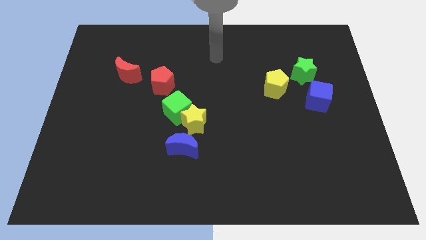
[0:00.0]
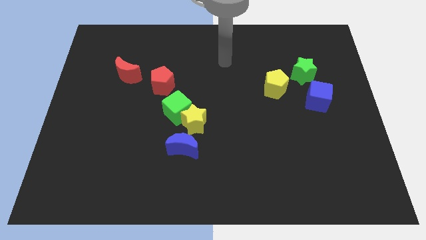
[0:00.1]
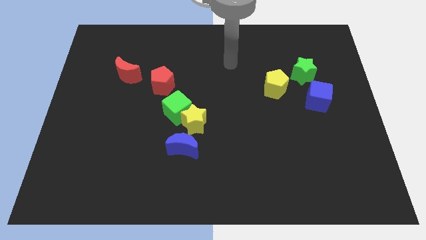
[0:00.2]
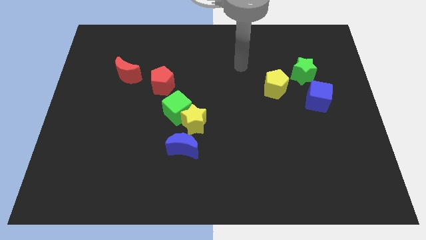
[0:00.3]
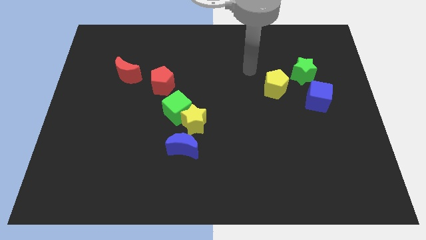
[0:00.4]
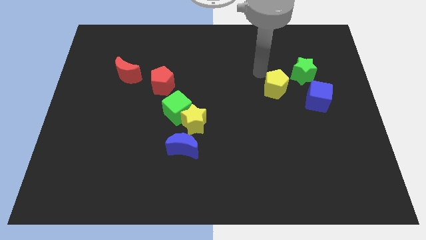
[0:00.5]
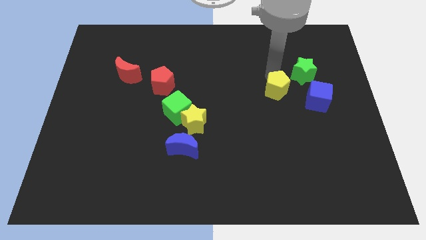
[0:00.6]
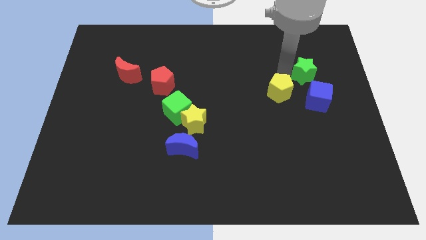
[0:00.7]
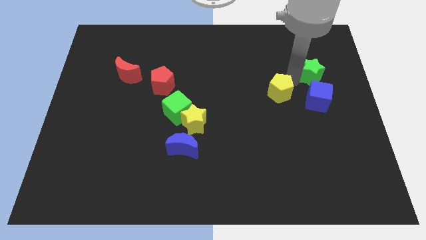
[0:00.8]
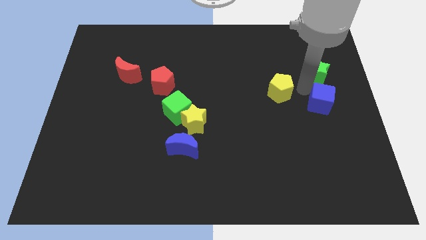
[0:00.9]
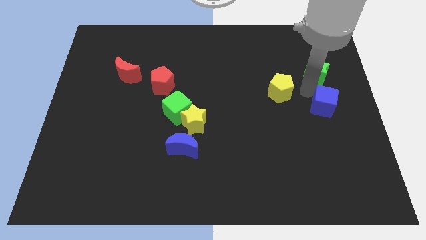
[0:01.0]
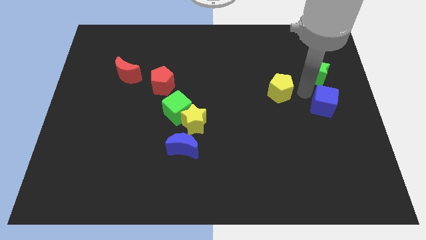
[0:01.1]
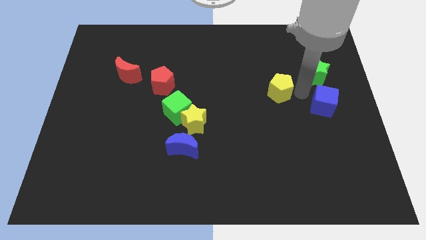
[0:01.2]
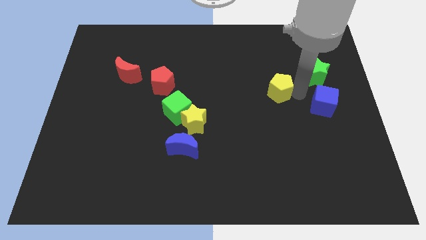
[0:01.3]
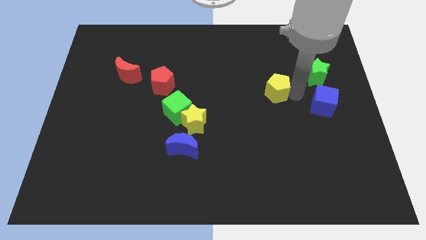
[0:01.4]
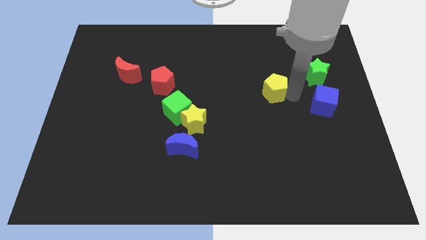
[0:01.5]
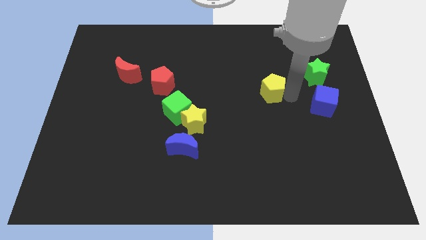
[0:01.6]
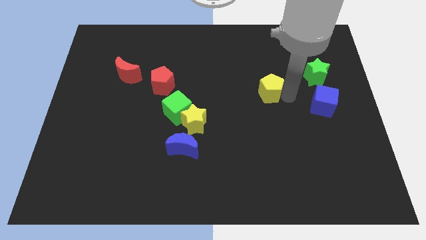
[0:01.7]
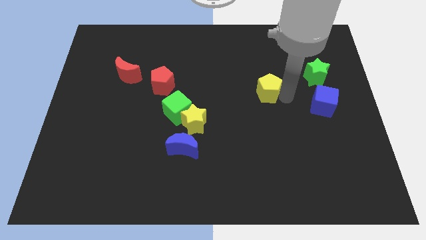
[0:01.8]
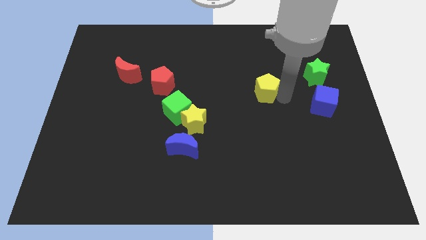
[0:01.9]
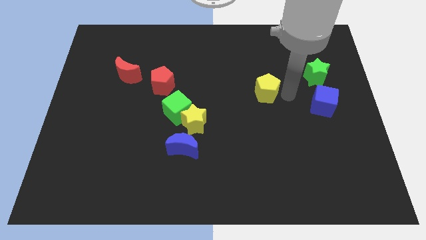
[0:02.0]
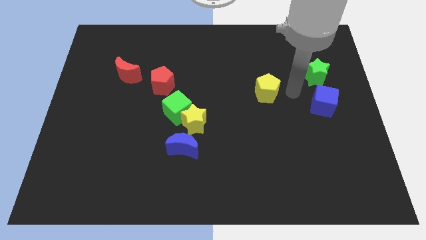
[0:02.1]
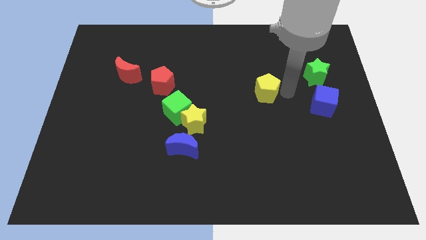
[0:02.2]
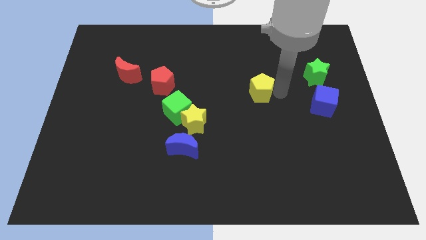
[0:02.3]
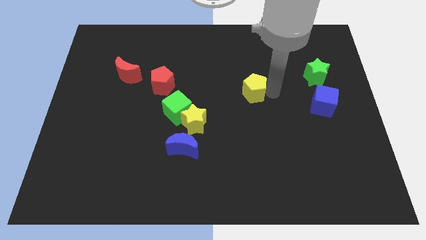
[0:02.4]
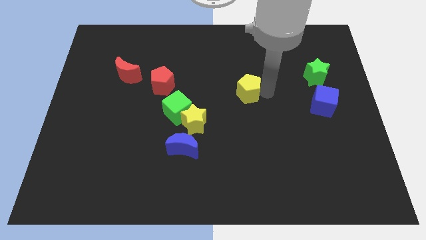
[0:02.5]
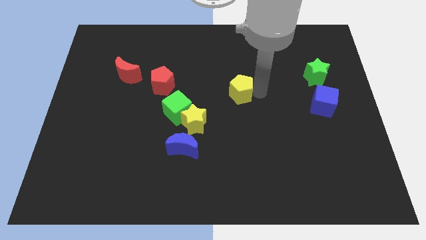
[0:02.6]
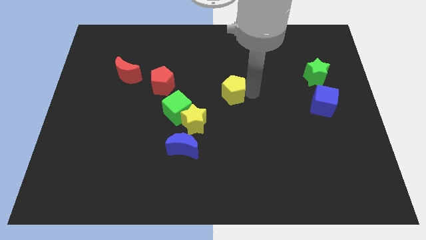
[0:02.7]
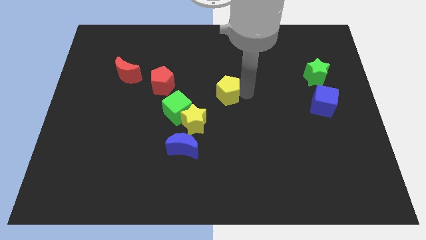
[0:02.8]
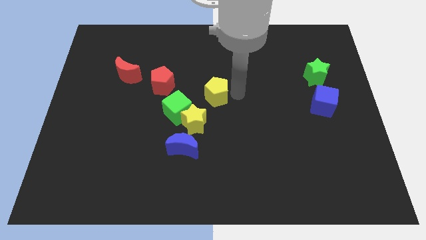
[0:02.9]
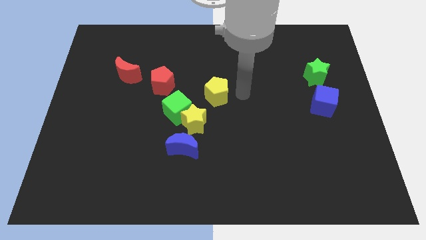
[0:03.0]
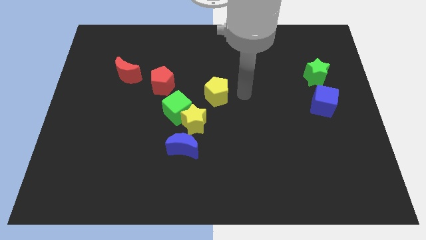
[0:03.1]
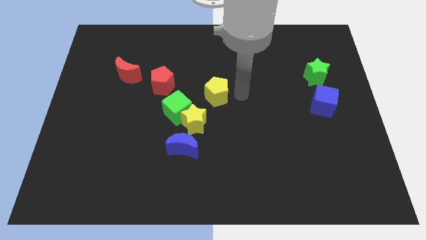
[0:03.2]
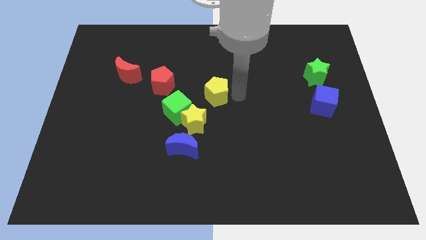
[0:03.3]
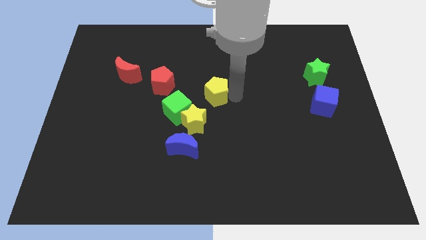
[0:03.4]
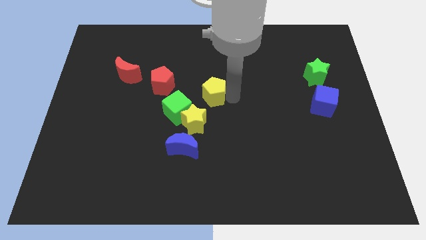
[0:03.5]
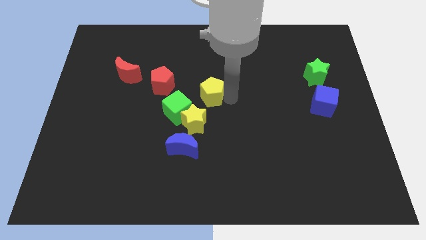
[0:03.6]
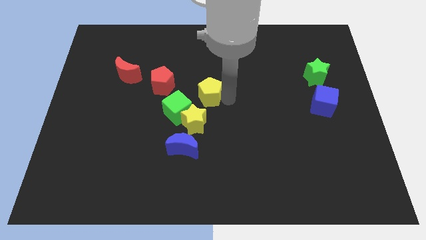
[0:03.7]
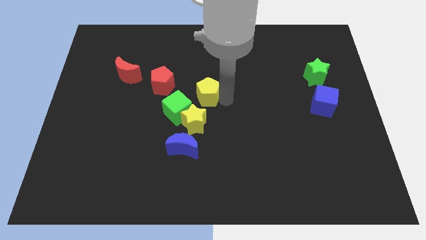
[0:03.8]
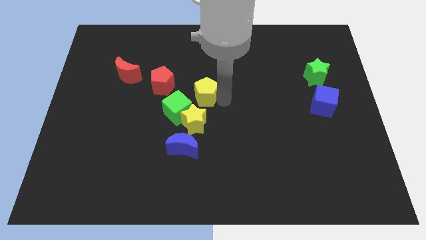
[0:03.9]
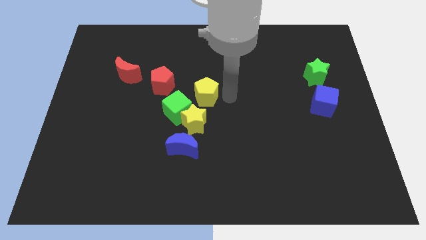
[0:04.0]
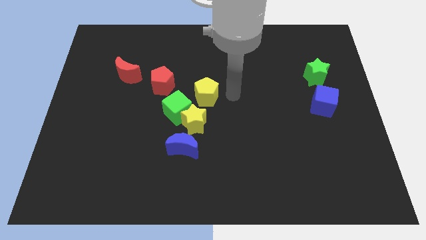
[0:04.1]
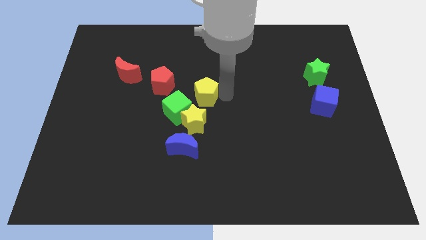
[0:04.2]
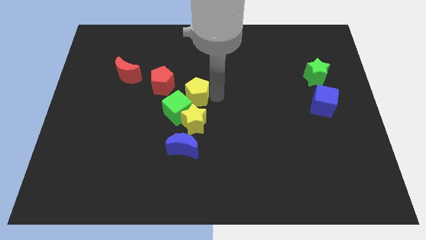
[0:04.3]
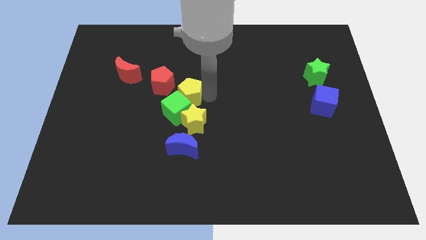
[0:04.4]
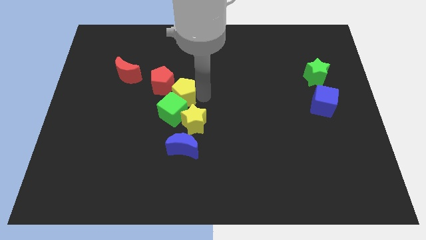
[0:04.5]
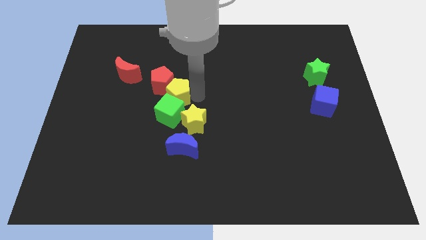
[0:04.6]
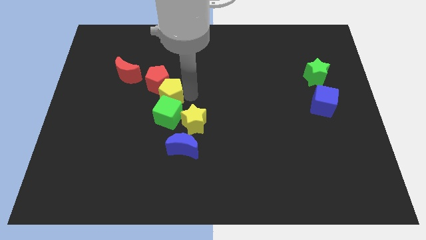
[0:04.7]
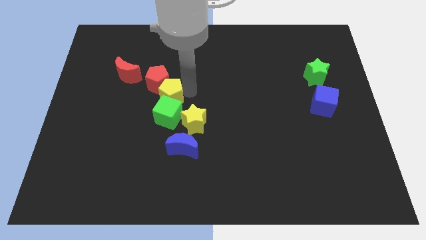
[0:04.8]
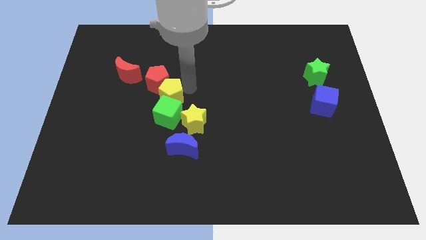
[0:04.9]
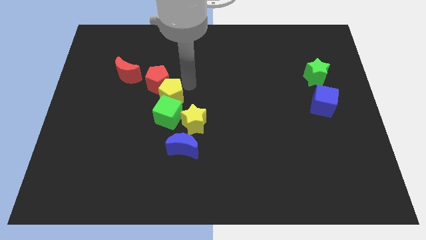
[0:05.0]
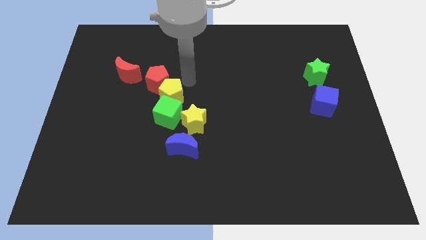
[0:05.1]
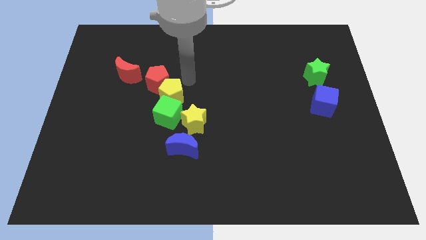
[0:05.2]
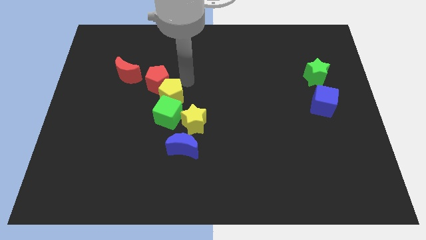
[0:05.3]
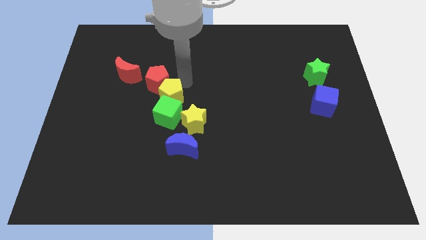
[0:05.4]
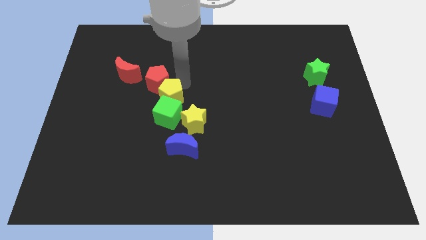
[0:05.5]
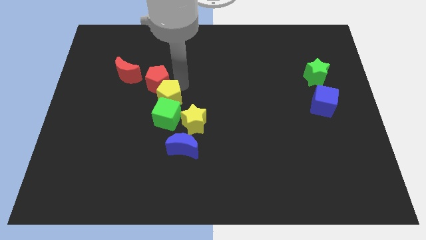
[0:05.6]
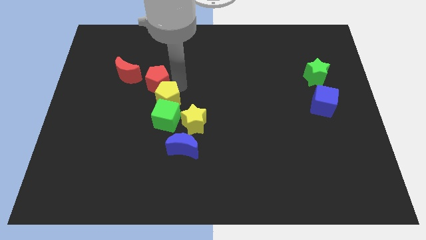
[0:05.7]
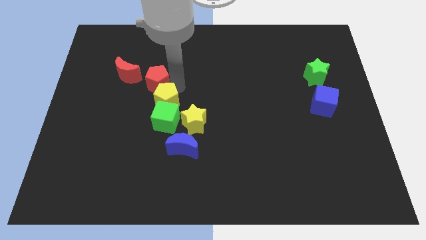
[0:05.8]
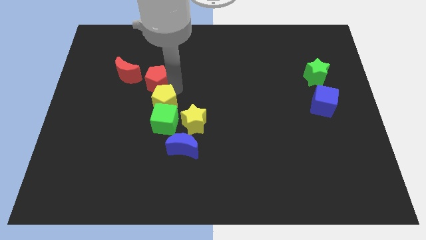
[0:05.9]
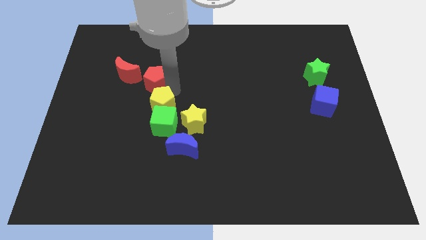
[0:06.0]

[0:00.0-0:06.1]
move the yellow pentagon just left of the yellow star

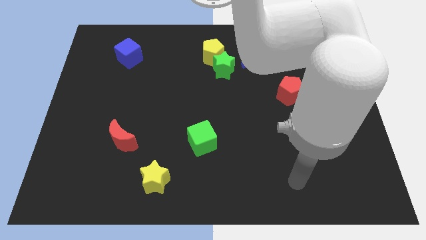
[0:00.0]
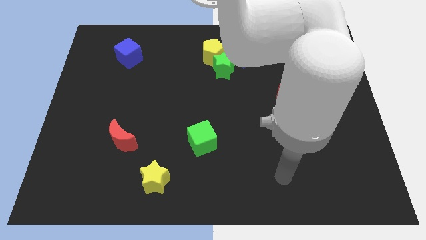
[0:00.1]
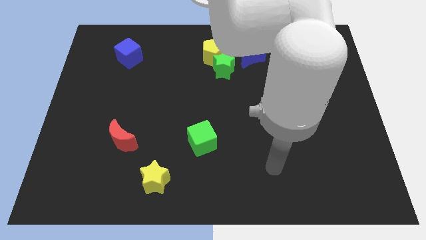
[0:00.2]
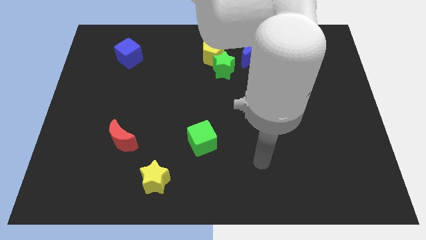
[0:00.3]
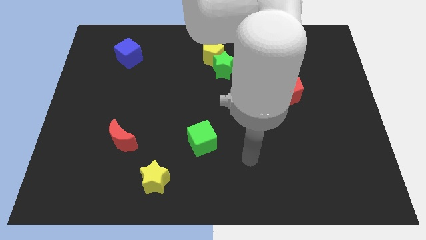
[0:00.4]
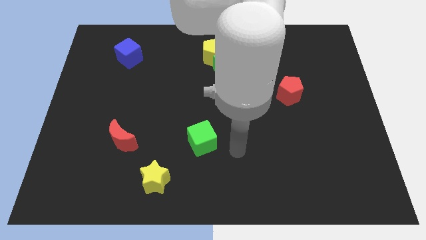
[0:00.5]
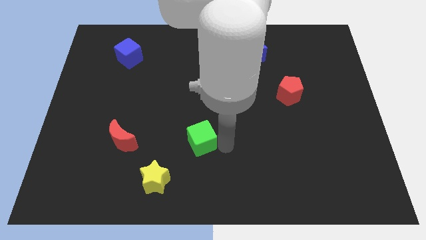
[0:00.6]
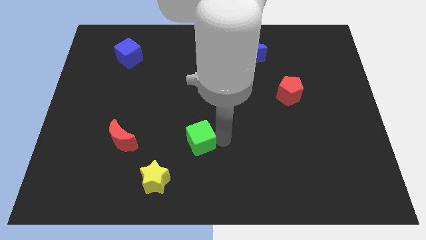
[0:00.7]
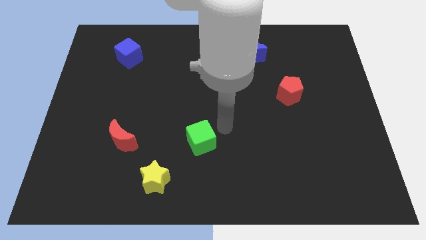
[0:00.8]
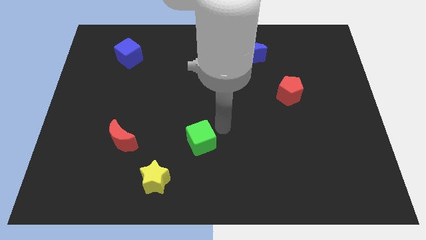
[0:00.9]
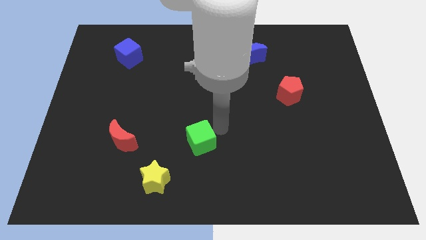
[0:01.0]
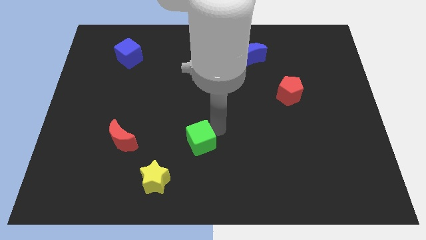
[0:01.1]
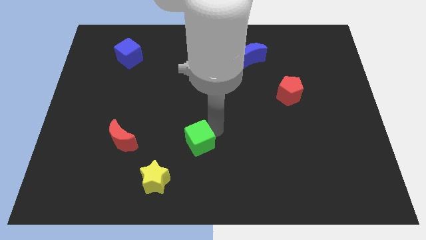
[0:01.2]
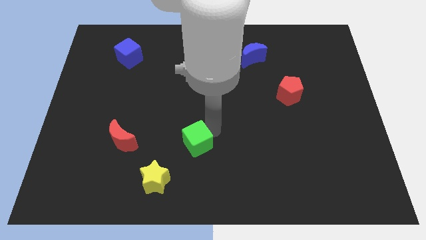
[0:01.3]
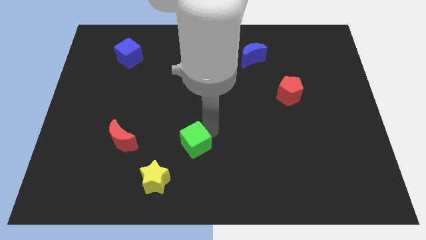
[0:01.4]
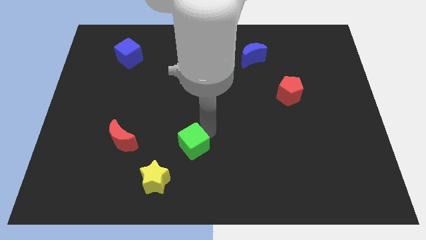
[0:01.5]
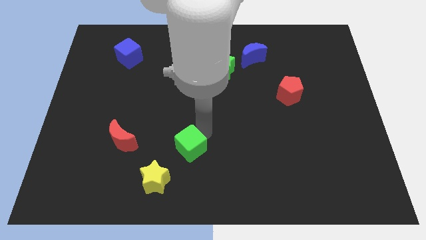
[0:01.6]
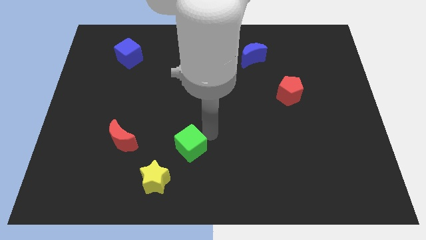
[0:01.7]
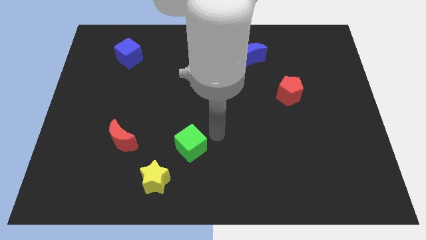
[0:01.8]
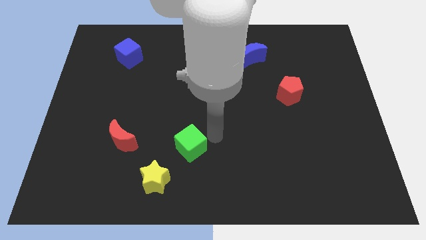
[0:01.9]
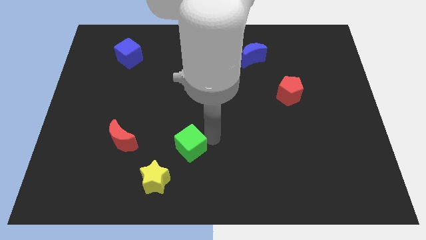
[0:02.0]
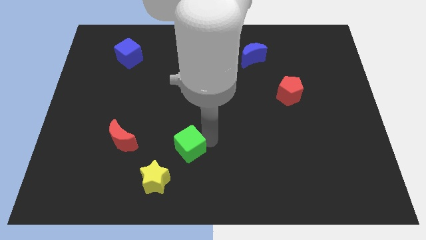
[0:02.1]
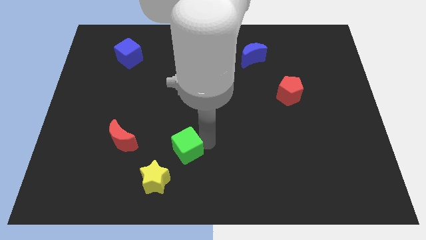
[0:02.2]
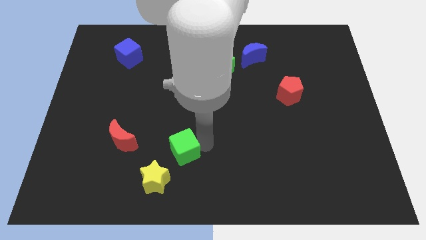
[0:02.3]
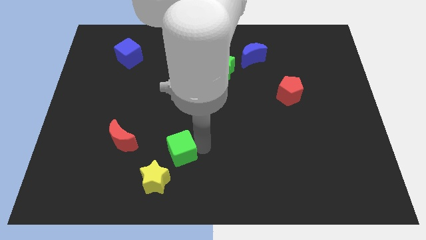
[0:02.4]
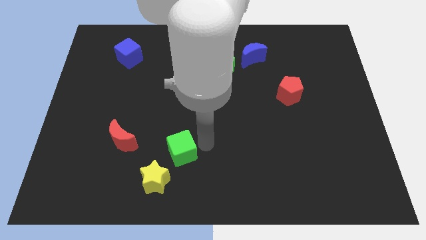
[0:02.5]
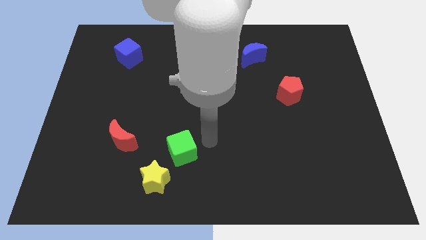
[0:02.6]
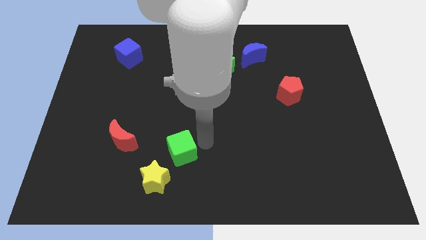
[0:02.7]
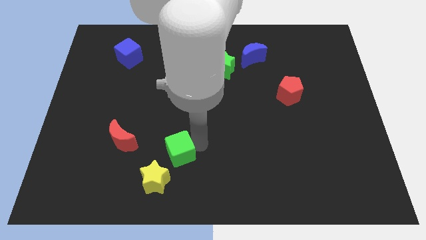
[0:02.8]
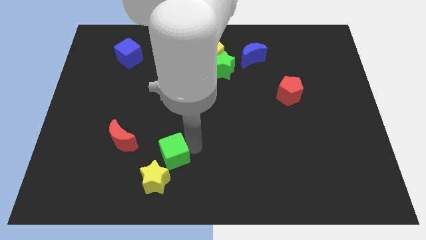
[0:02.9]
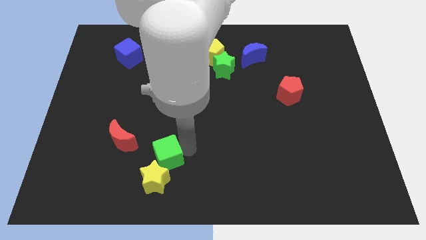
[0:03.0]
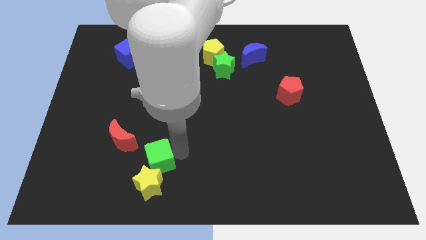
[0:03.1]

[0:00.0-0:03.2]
slide the green cube diagonally down and to the right of the red moon
